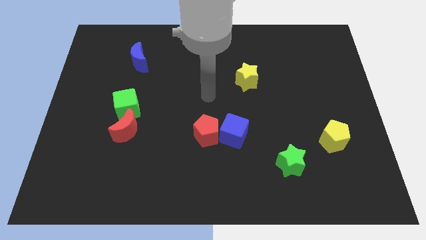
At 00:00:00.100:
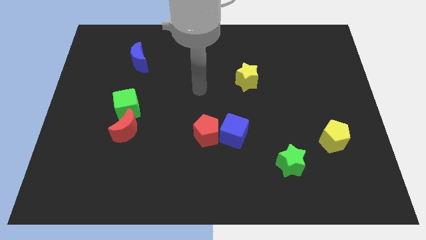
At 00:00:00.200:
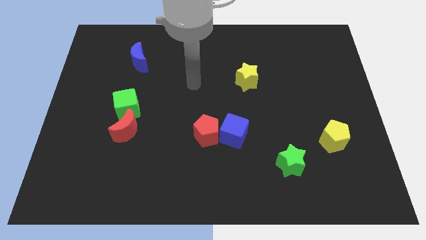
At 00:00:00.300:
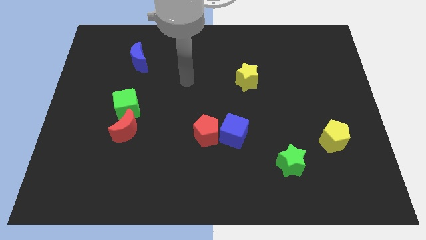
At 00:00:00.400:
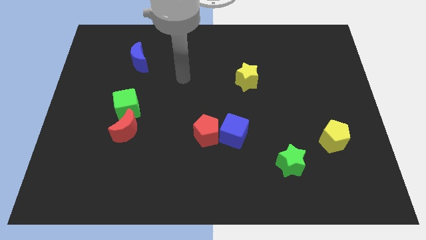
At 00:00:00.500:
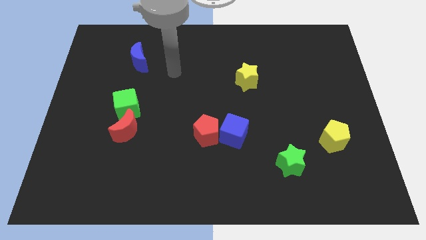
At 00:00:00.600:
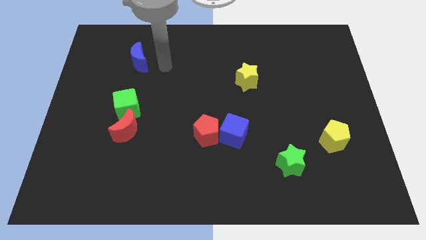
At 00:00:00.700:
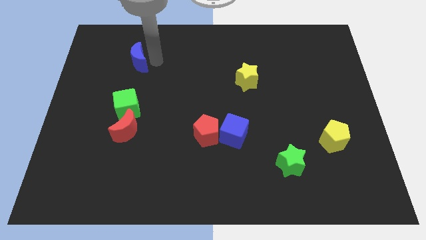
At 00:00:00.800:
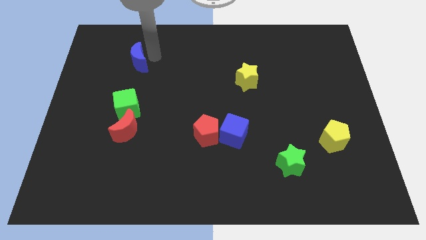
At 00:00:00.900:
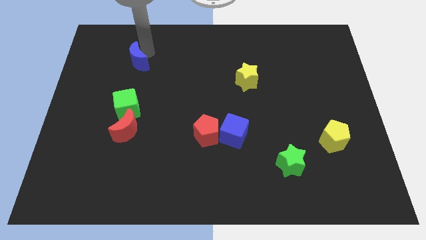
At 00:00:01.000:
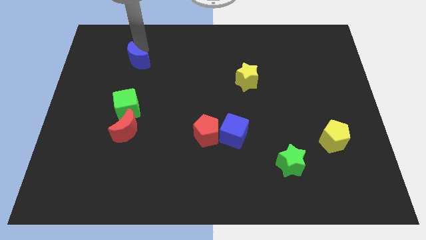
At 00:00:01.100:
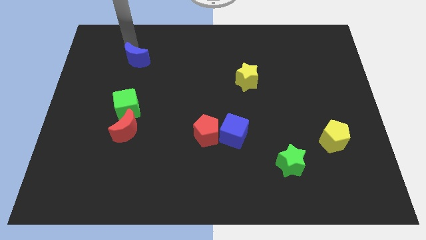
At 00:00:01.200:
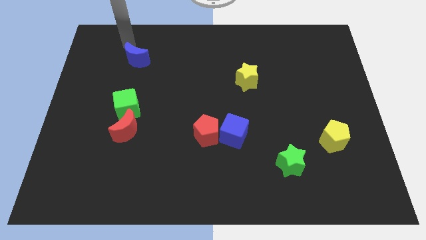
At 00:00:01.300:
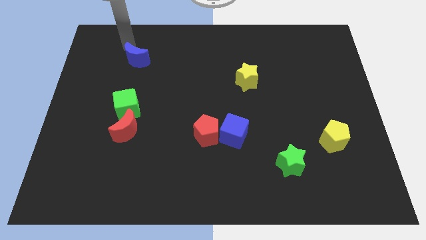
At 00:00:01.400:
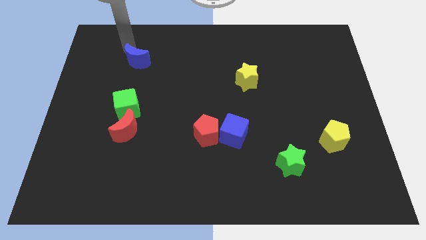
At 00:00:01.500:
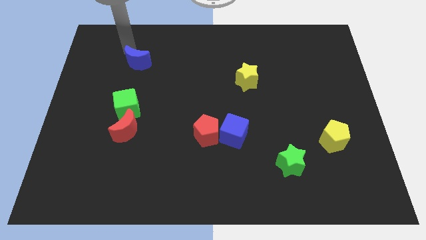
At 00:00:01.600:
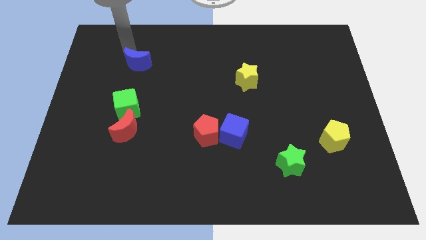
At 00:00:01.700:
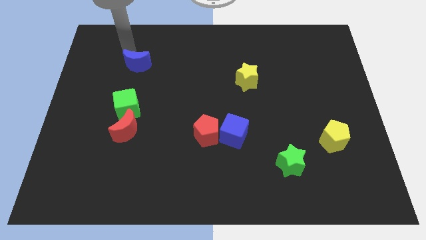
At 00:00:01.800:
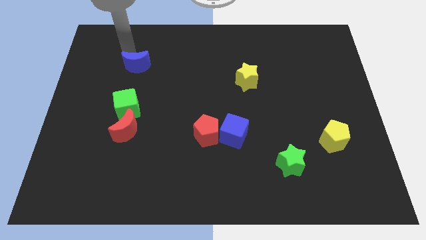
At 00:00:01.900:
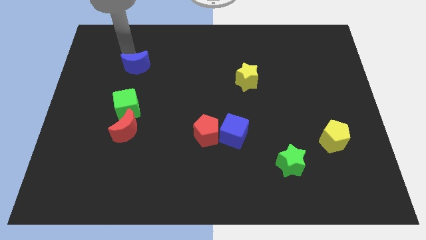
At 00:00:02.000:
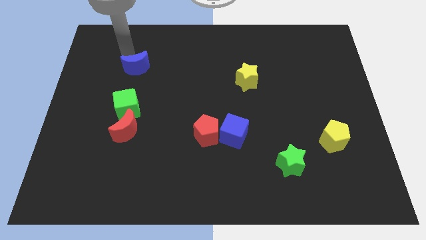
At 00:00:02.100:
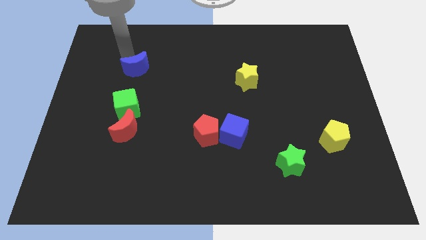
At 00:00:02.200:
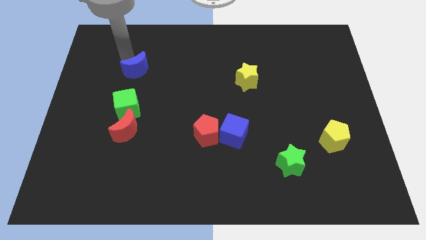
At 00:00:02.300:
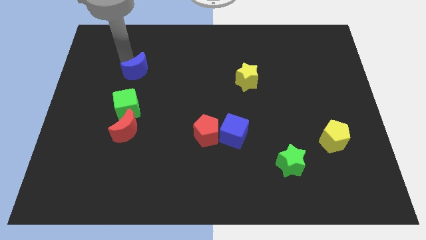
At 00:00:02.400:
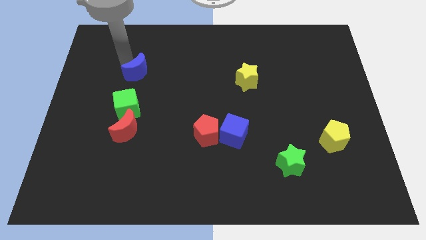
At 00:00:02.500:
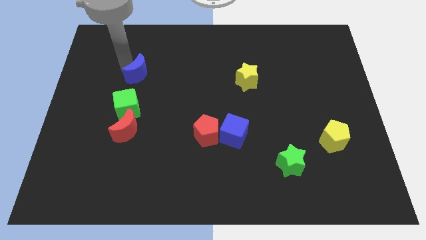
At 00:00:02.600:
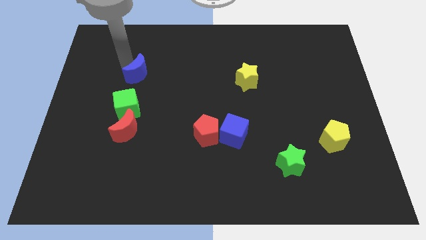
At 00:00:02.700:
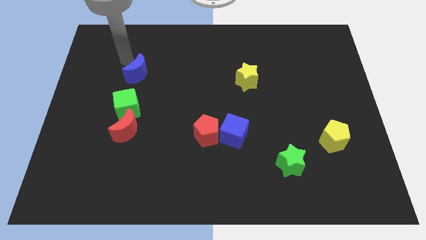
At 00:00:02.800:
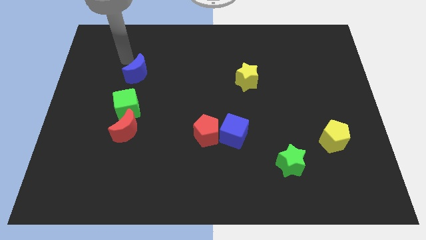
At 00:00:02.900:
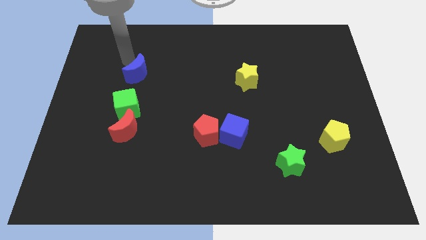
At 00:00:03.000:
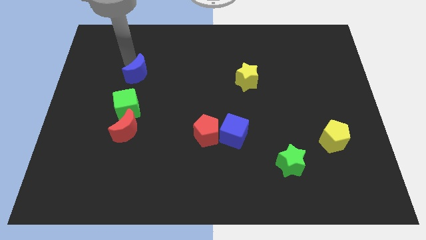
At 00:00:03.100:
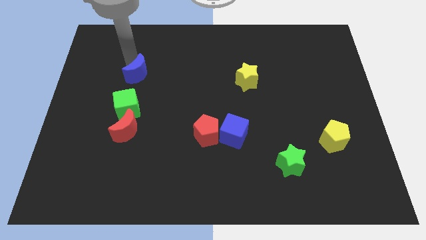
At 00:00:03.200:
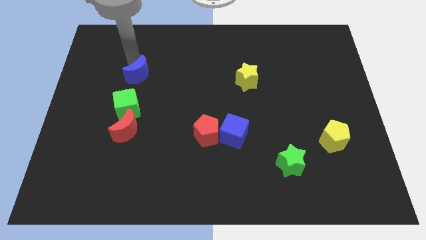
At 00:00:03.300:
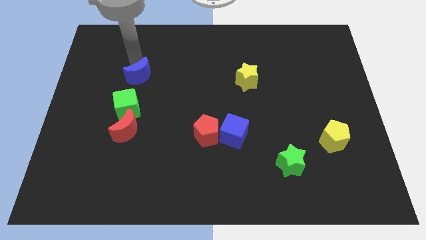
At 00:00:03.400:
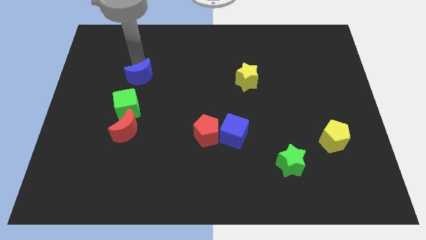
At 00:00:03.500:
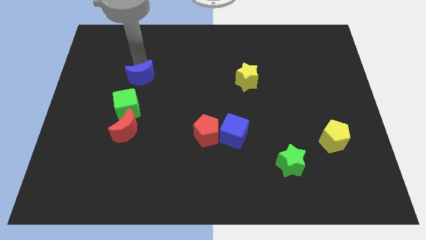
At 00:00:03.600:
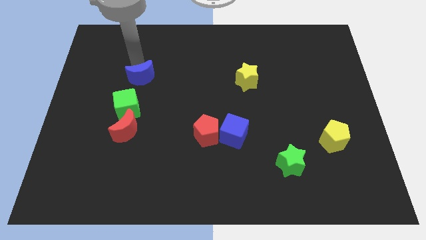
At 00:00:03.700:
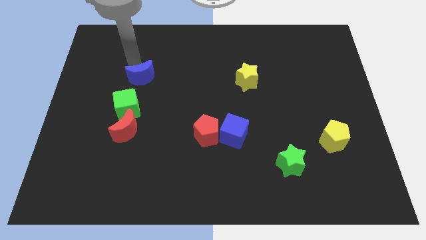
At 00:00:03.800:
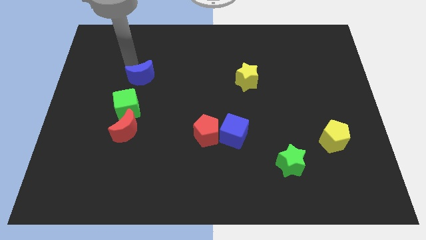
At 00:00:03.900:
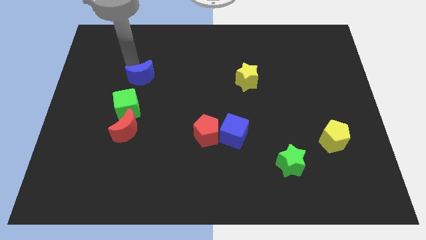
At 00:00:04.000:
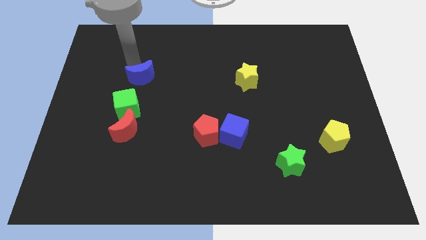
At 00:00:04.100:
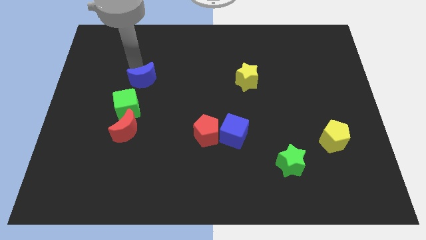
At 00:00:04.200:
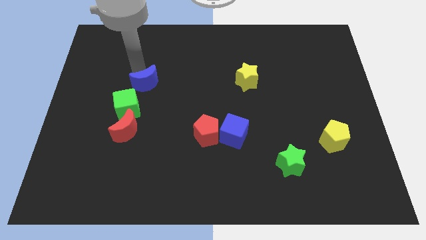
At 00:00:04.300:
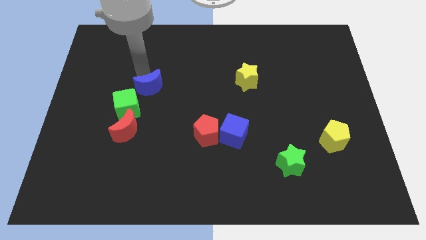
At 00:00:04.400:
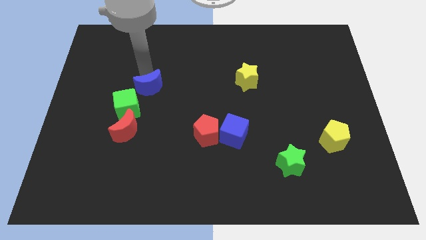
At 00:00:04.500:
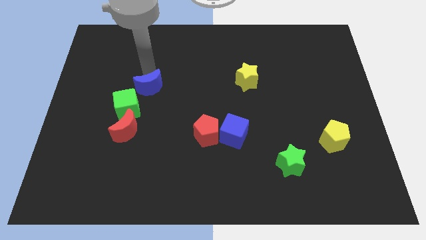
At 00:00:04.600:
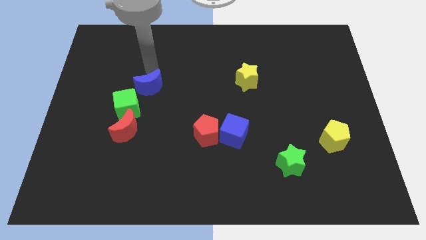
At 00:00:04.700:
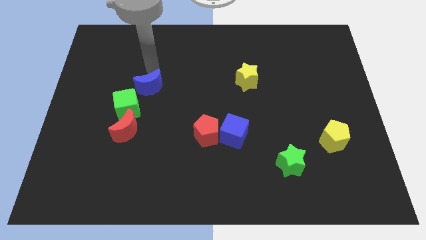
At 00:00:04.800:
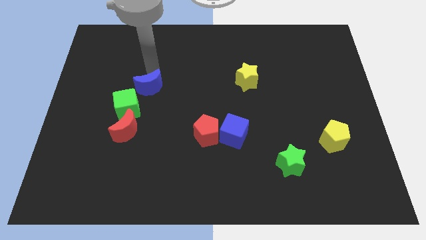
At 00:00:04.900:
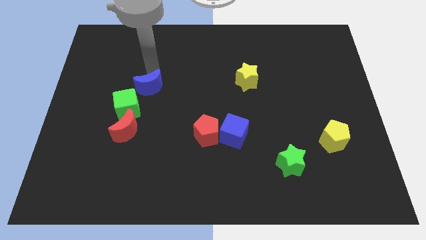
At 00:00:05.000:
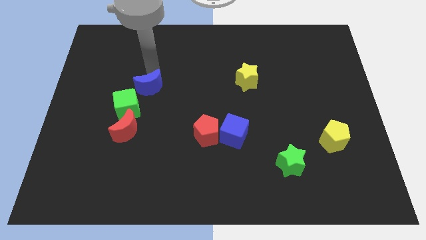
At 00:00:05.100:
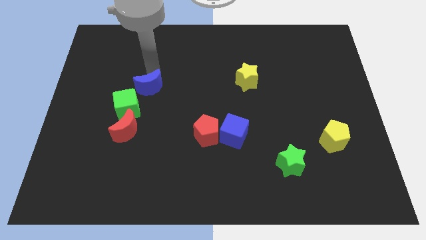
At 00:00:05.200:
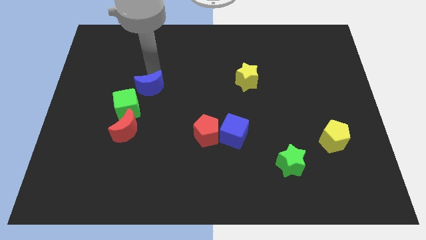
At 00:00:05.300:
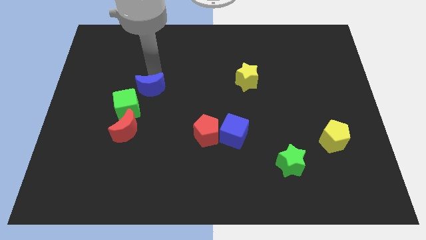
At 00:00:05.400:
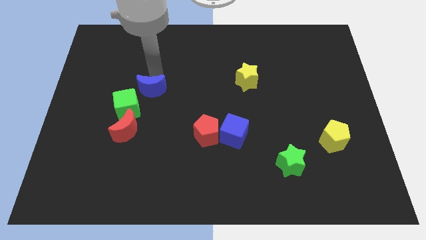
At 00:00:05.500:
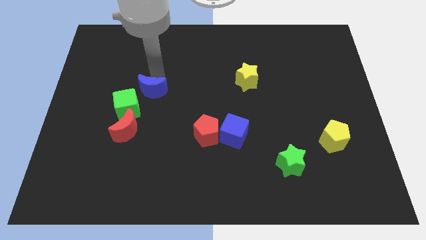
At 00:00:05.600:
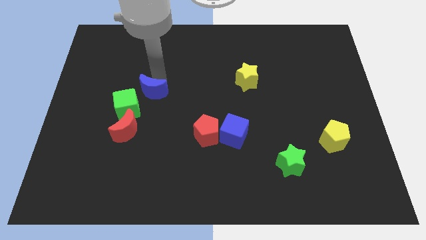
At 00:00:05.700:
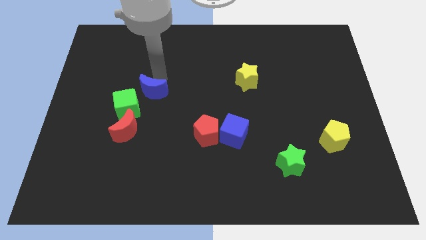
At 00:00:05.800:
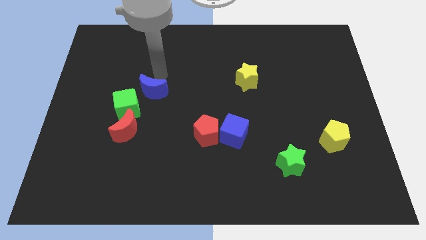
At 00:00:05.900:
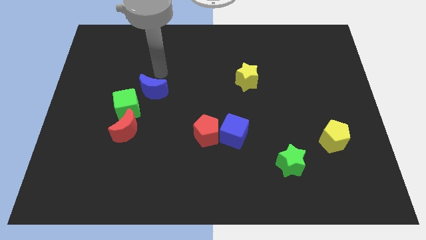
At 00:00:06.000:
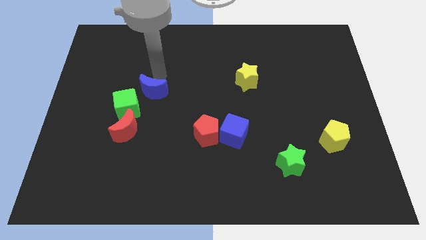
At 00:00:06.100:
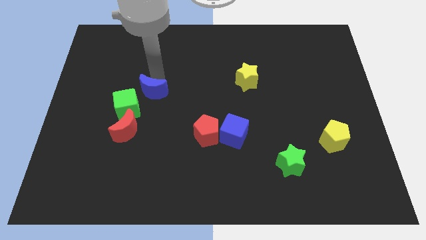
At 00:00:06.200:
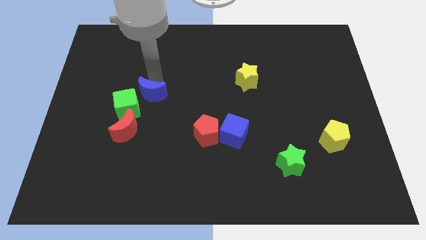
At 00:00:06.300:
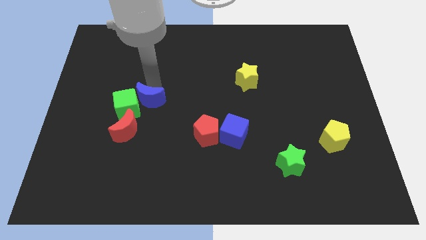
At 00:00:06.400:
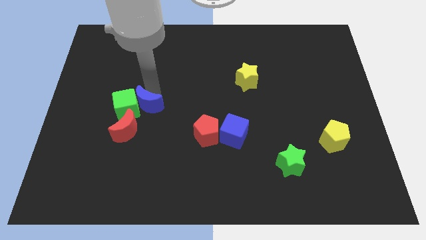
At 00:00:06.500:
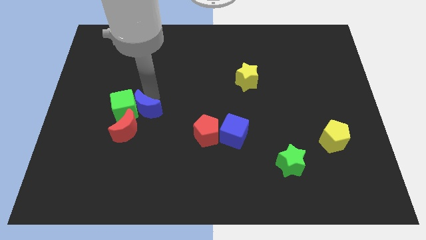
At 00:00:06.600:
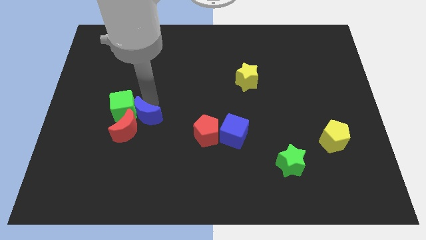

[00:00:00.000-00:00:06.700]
put the blue moon towards the red moon

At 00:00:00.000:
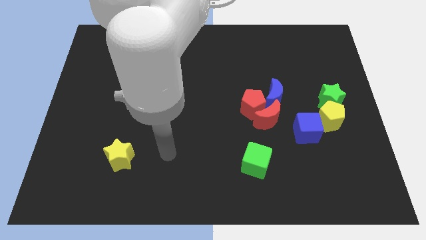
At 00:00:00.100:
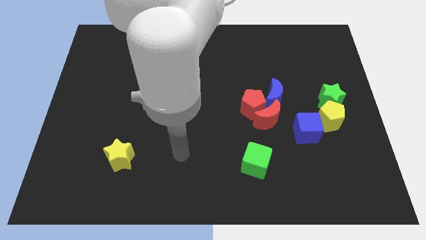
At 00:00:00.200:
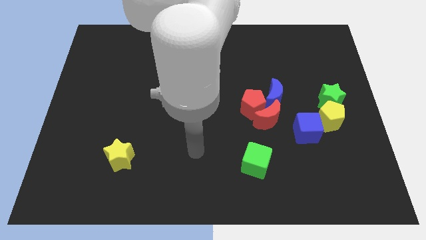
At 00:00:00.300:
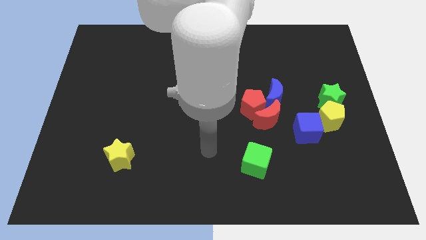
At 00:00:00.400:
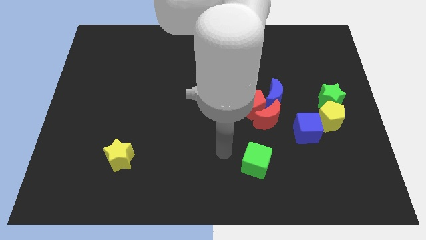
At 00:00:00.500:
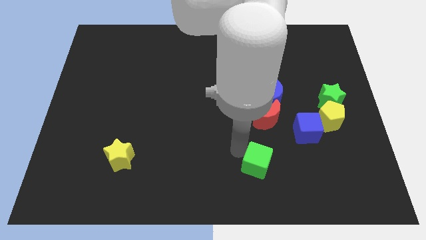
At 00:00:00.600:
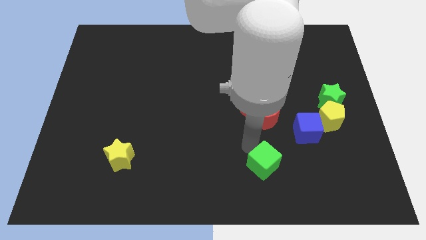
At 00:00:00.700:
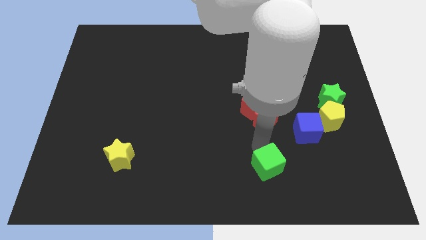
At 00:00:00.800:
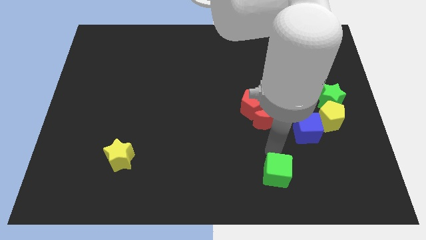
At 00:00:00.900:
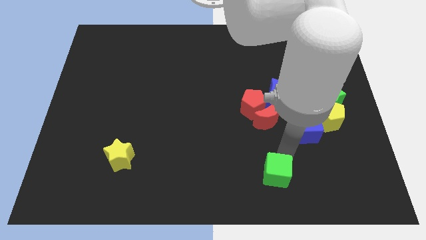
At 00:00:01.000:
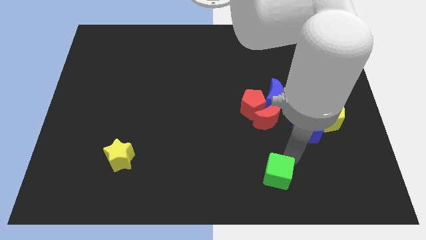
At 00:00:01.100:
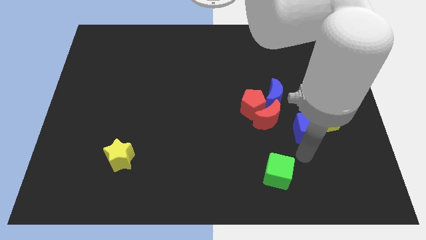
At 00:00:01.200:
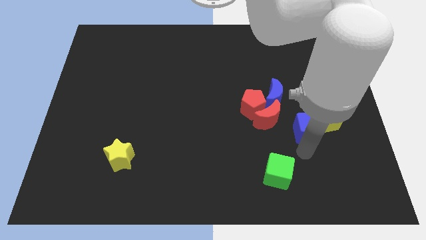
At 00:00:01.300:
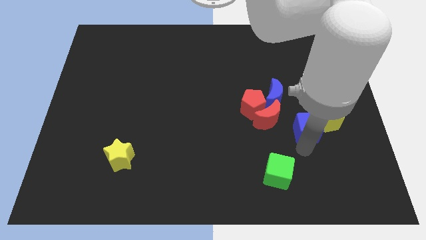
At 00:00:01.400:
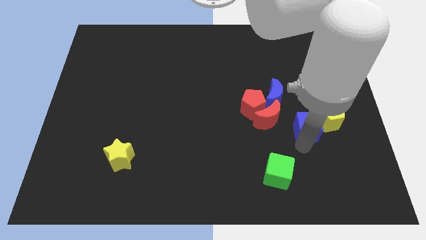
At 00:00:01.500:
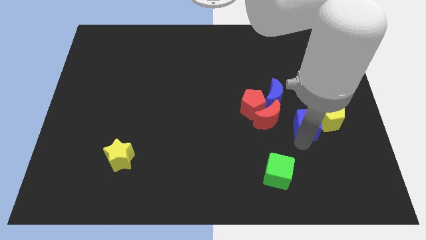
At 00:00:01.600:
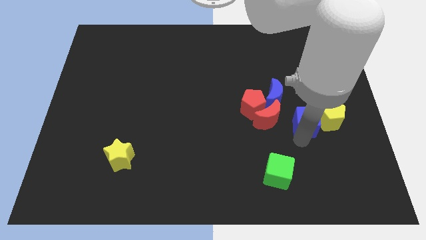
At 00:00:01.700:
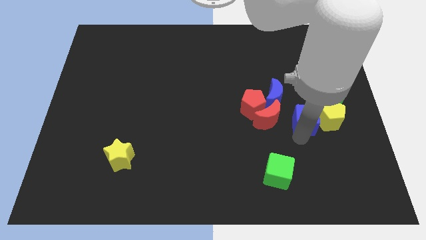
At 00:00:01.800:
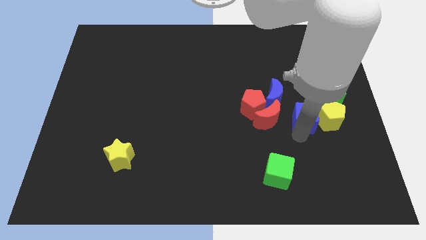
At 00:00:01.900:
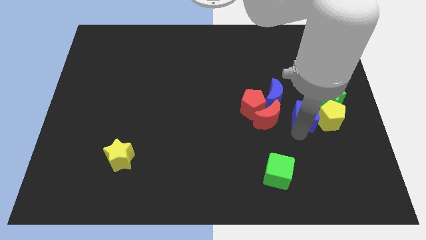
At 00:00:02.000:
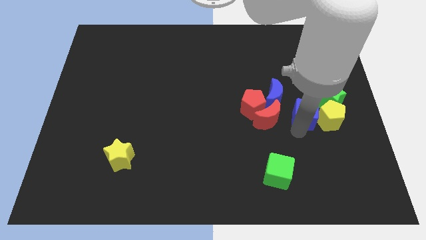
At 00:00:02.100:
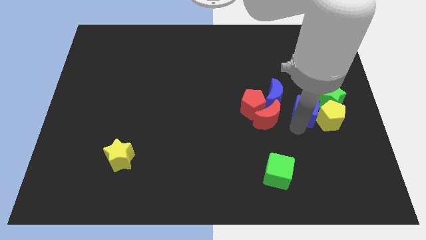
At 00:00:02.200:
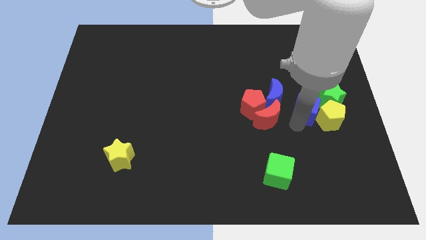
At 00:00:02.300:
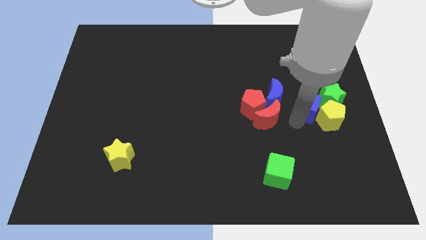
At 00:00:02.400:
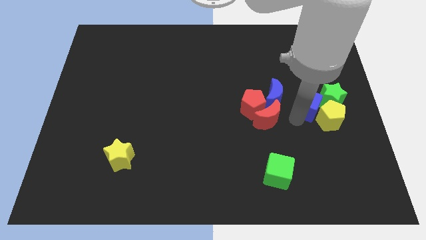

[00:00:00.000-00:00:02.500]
slide the blue cube to the green star
